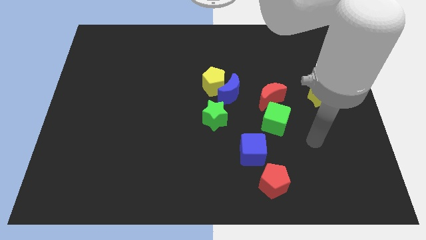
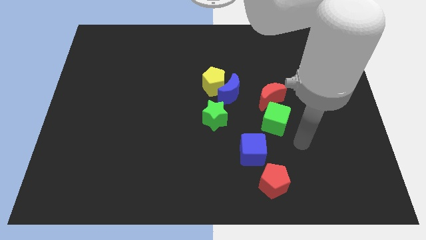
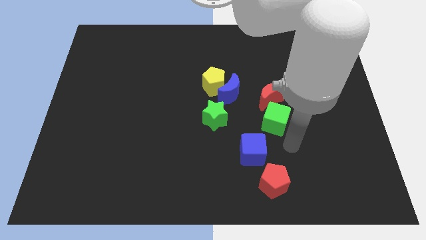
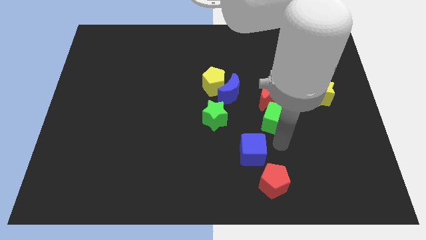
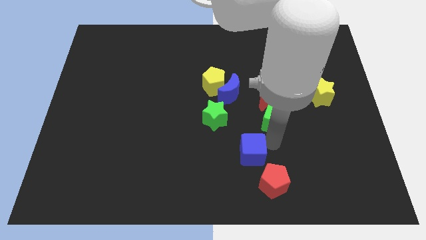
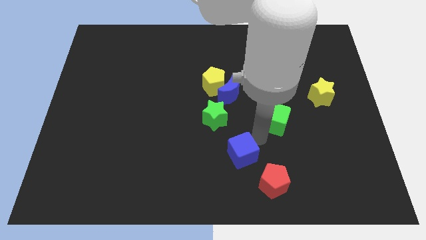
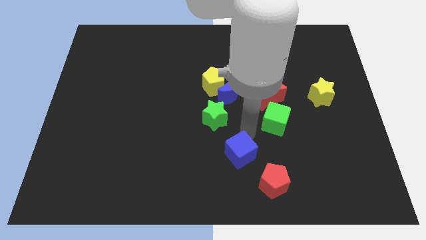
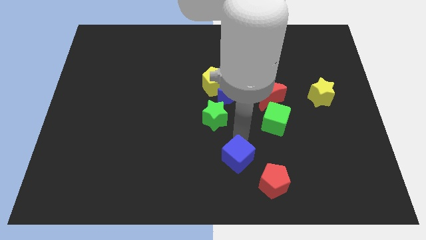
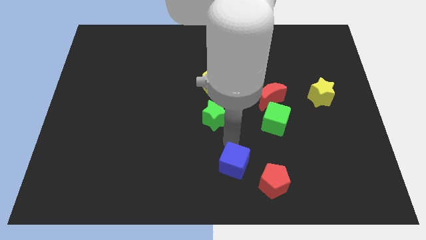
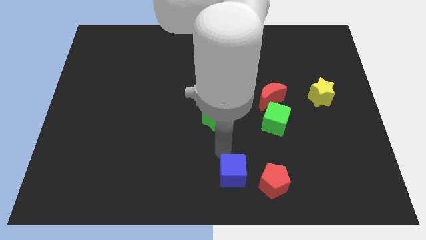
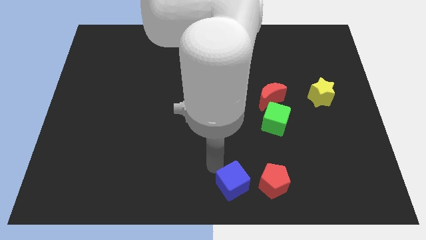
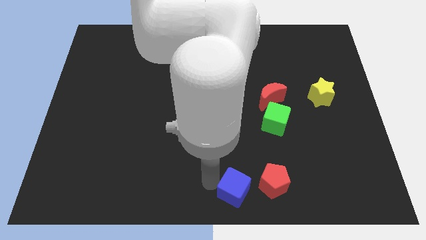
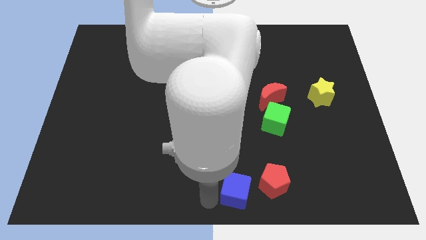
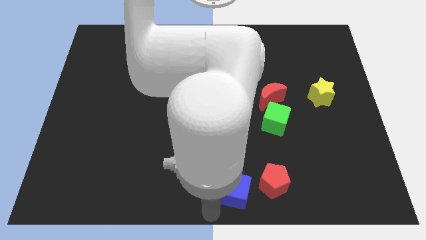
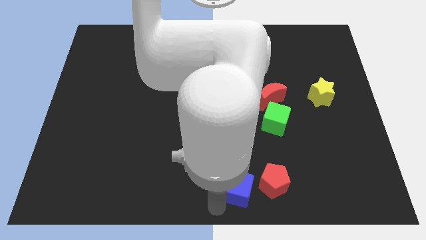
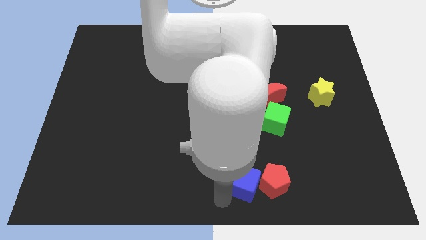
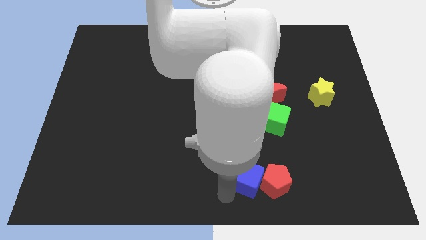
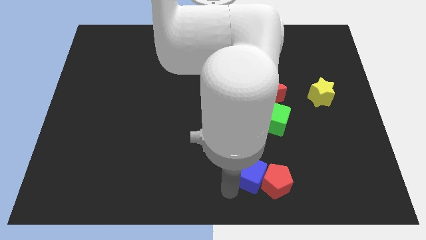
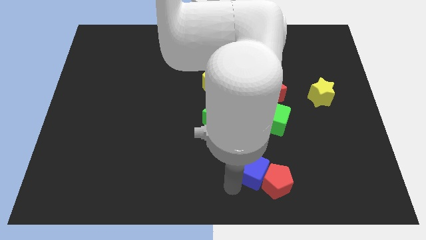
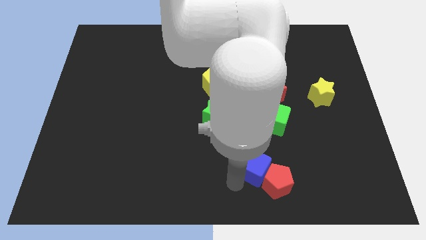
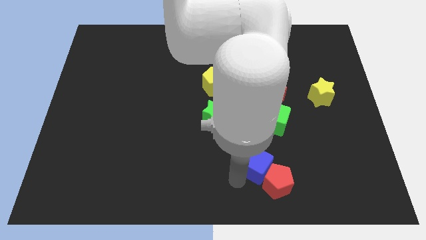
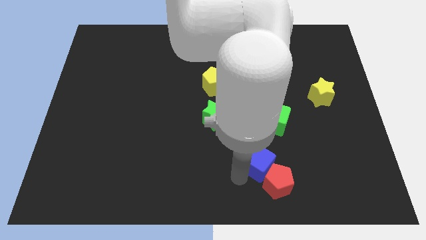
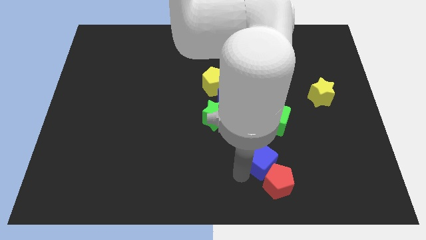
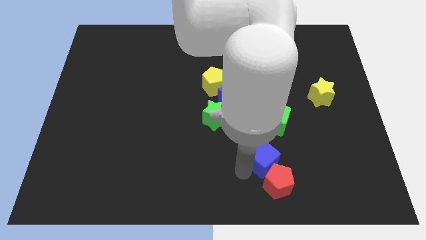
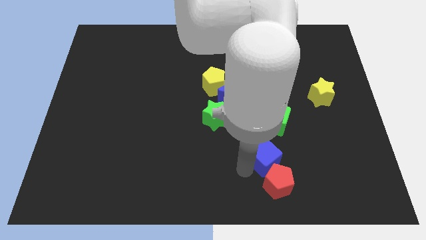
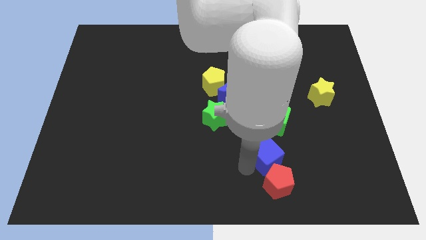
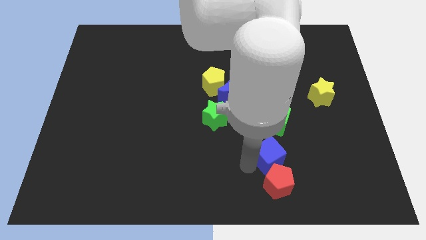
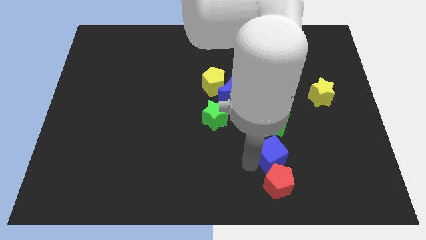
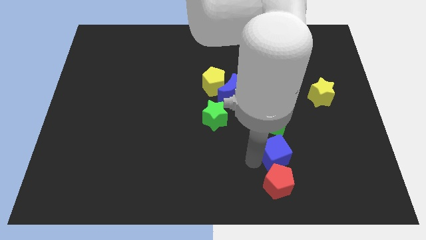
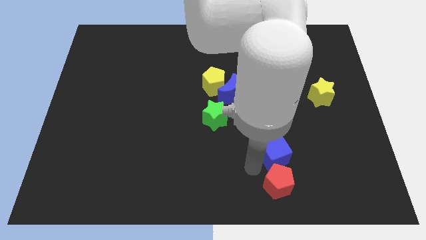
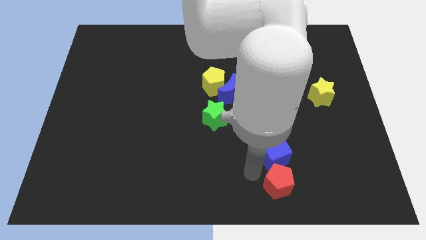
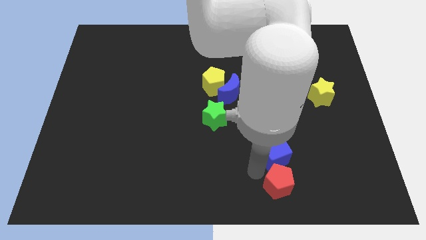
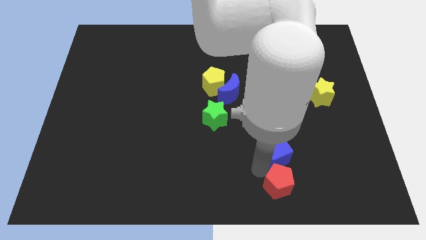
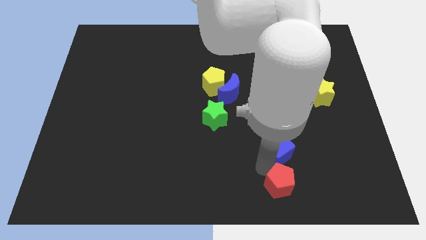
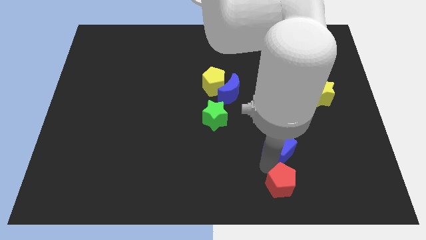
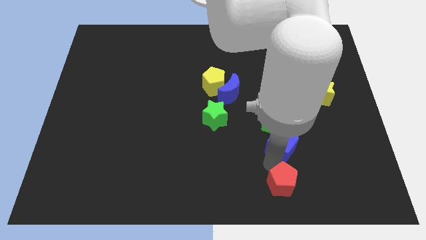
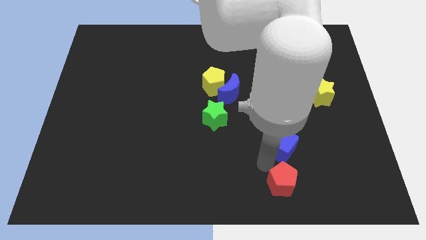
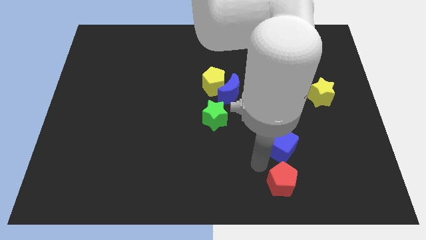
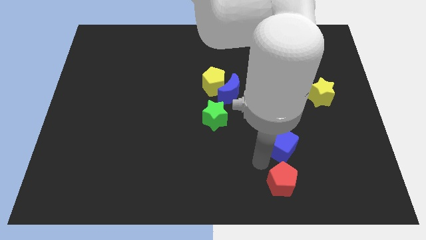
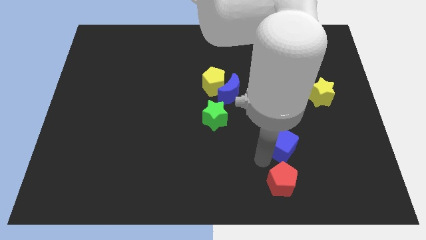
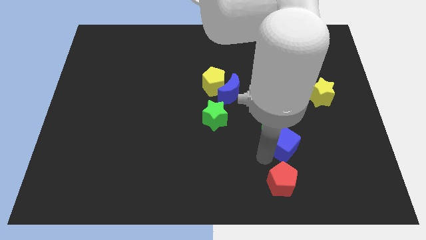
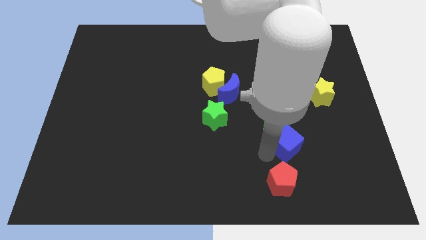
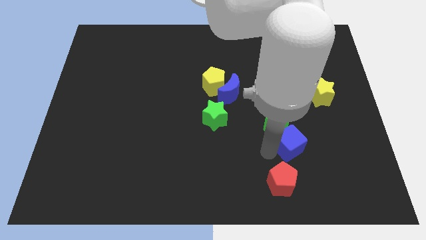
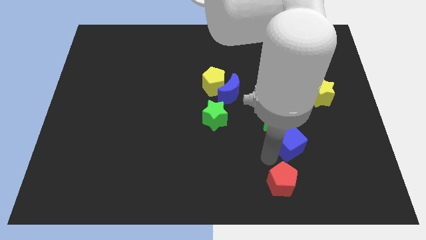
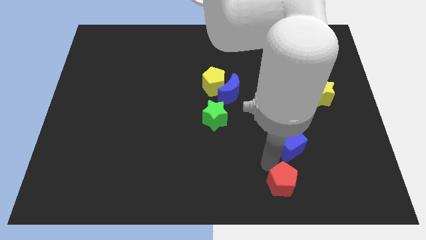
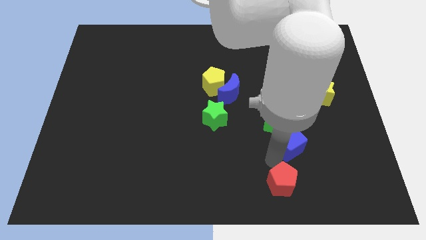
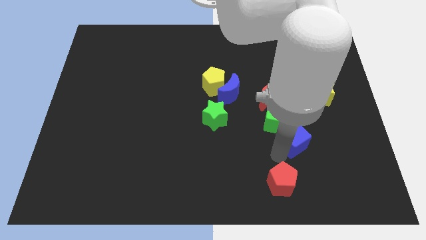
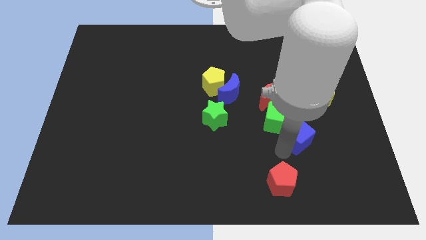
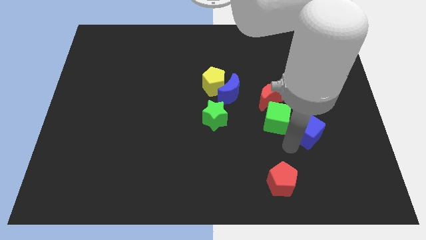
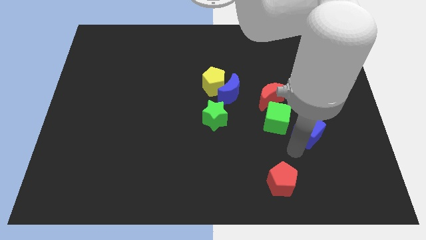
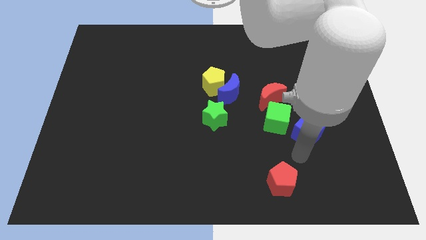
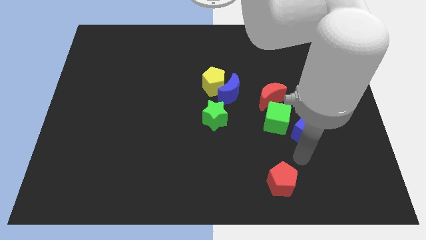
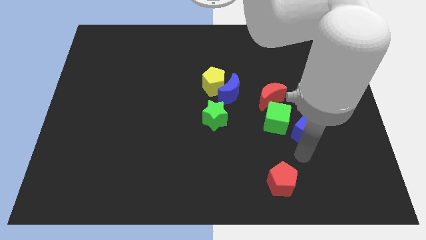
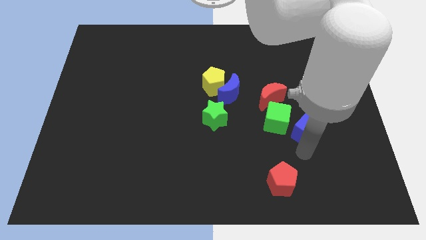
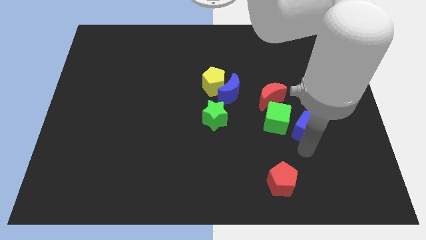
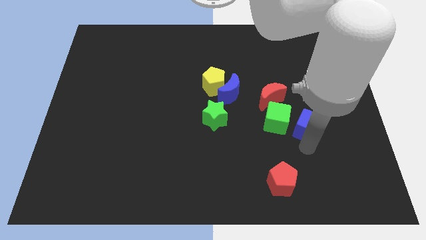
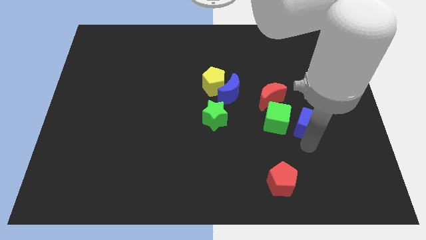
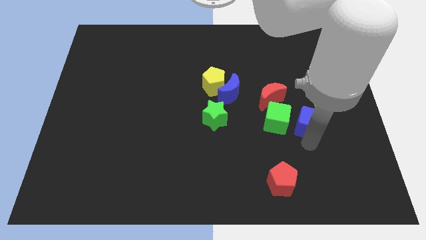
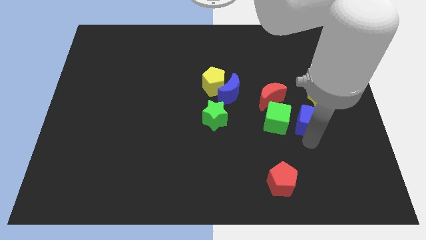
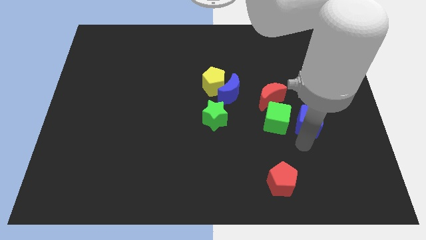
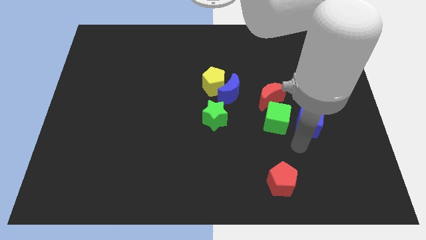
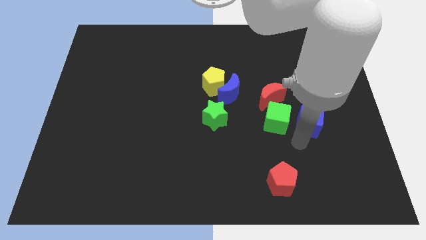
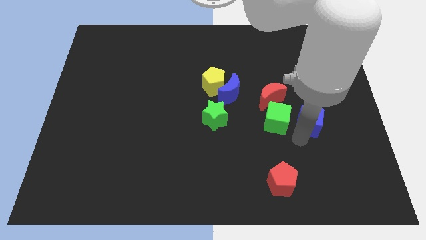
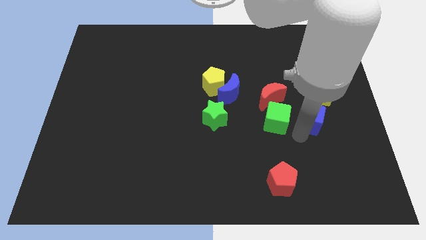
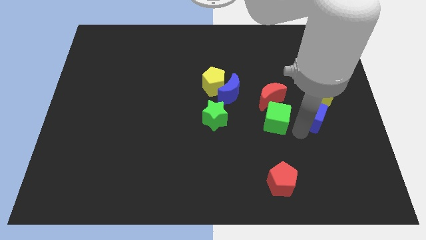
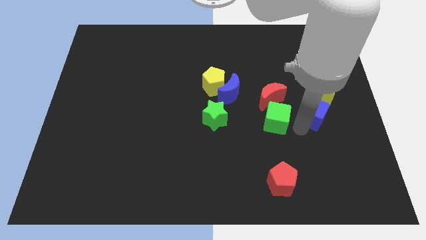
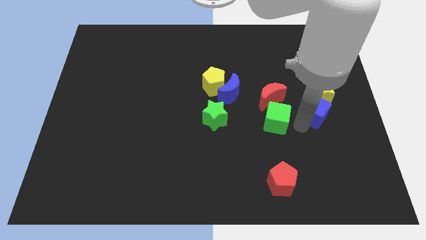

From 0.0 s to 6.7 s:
push the blue cube towards the yellow star

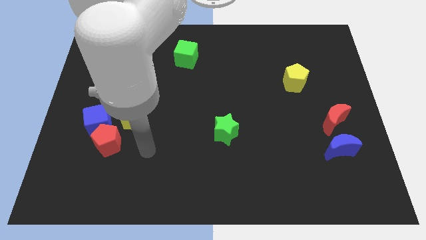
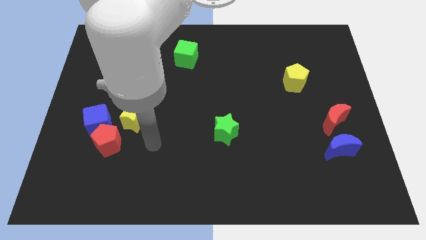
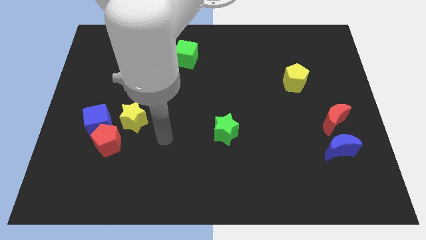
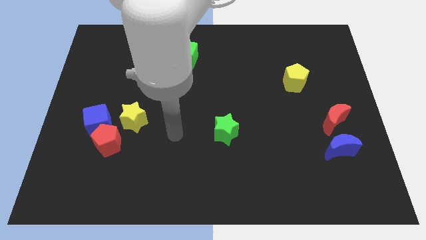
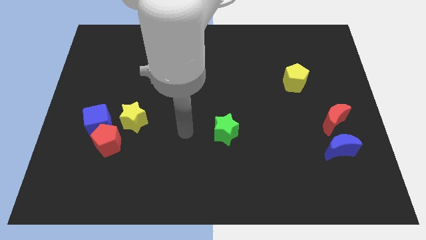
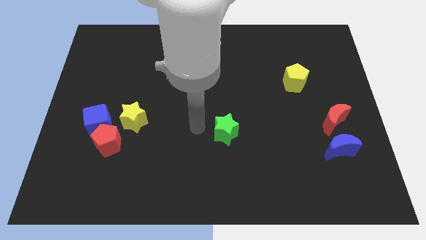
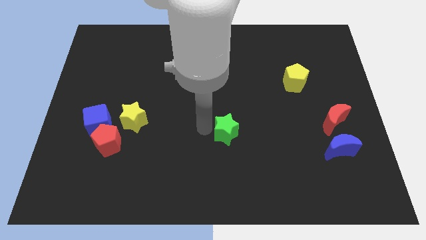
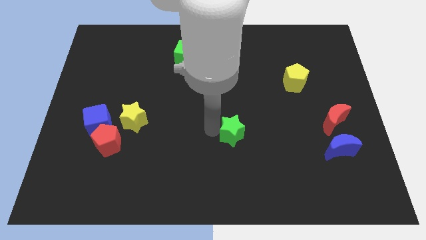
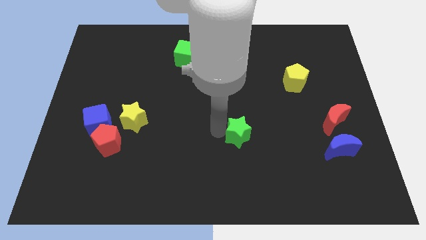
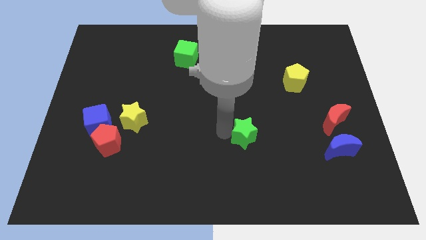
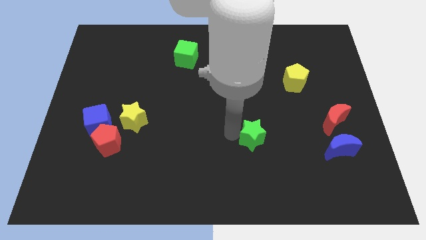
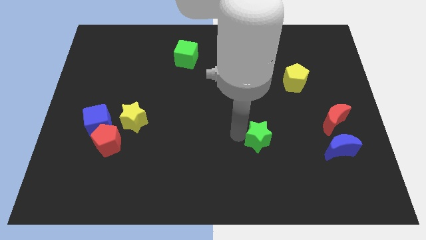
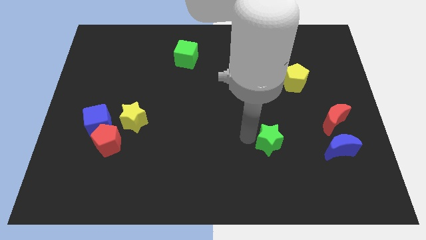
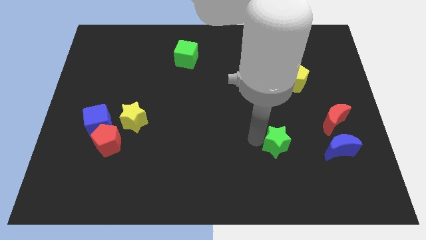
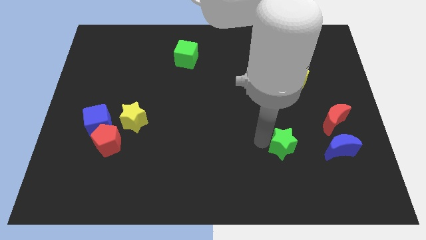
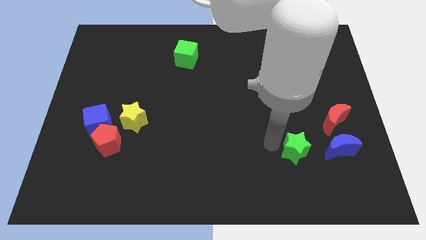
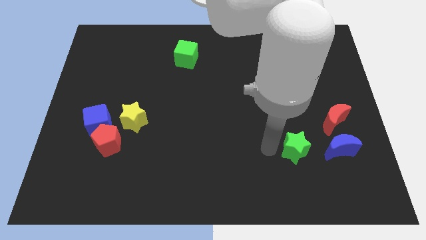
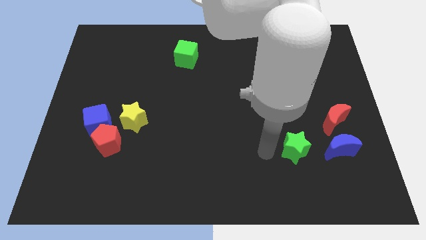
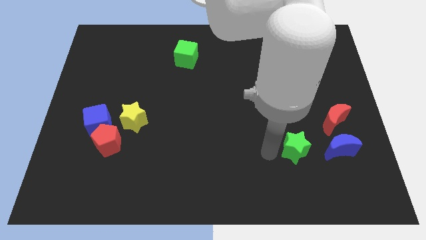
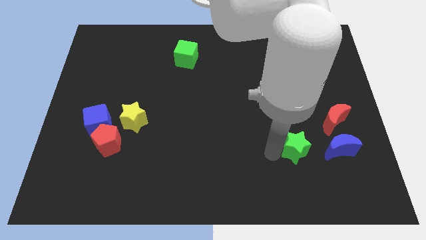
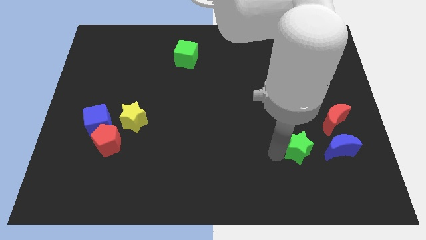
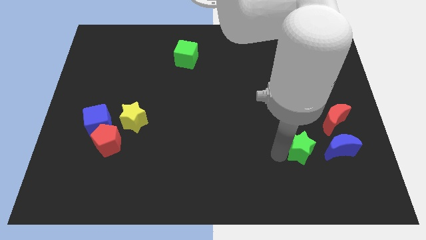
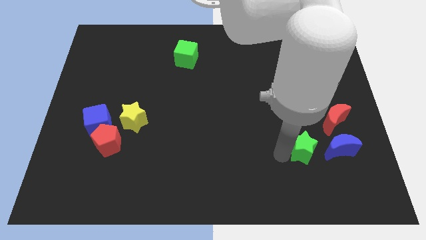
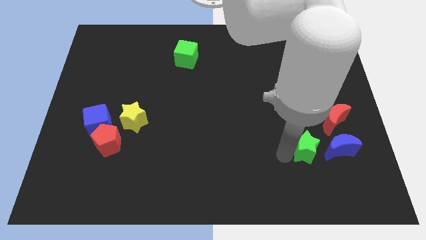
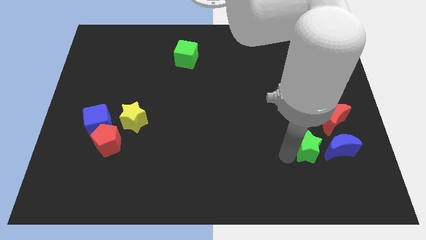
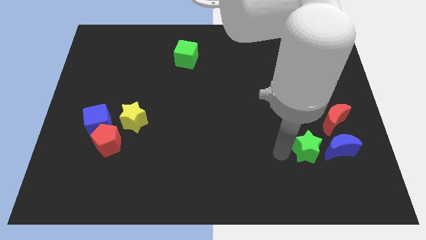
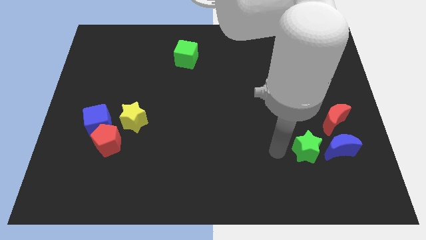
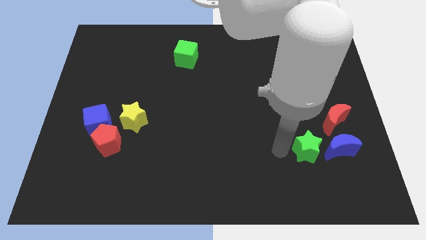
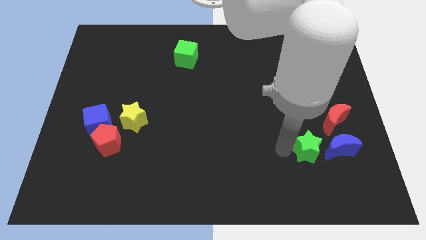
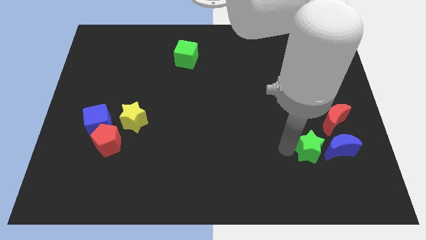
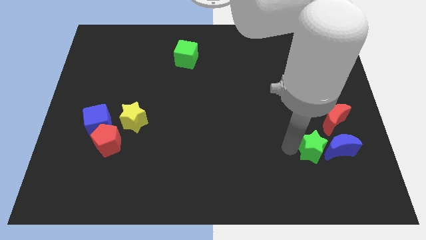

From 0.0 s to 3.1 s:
put the green star towards the blue moon
